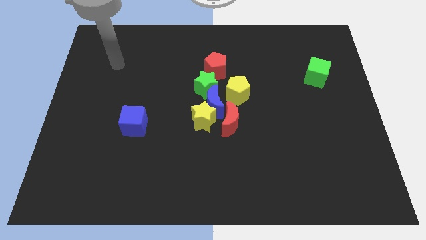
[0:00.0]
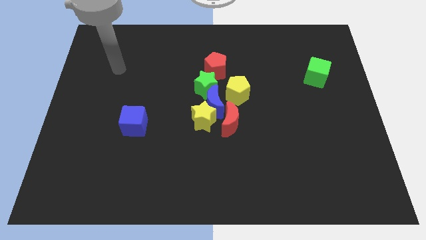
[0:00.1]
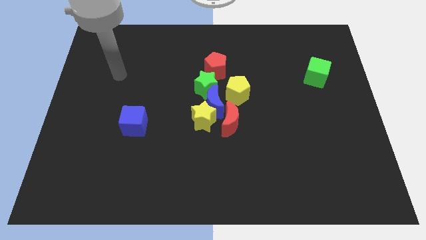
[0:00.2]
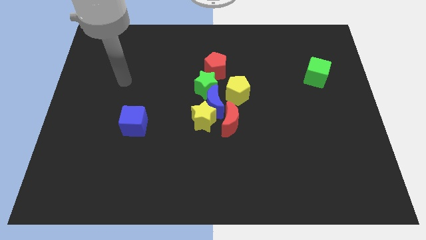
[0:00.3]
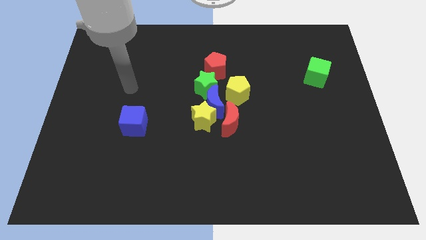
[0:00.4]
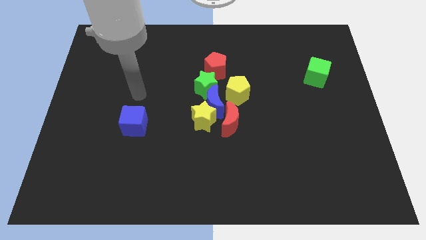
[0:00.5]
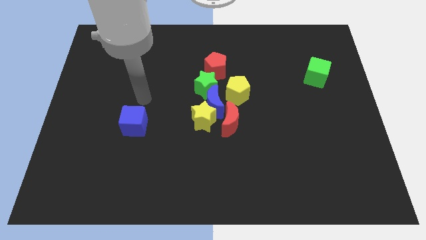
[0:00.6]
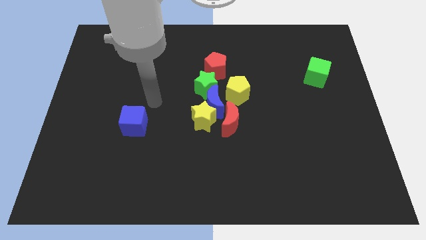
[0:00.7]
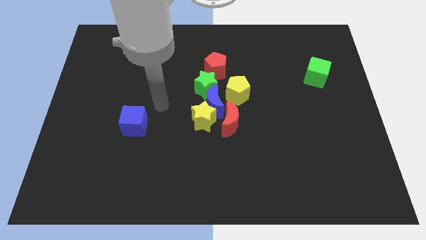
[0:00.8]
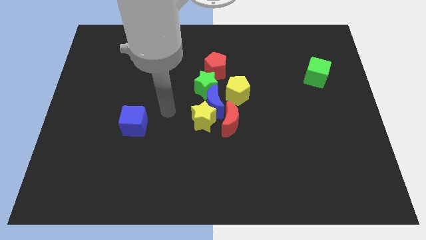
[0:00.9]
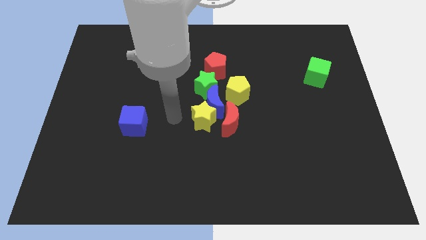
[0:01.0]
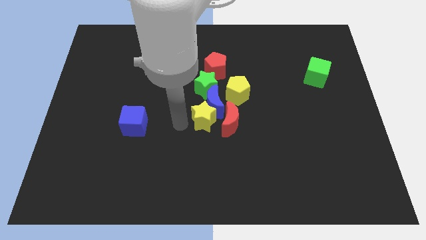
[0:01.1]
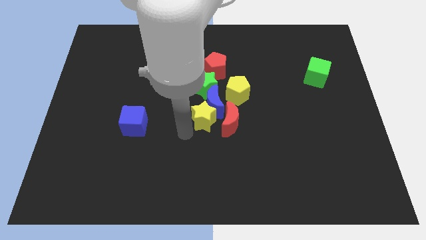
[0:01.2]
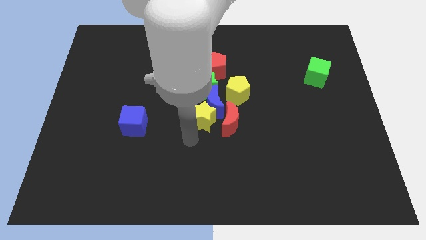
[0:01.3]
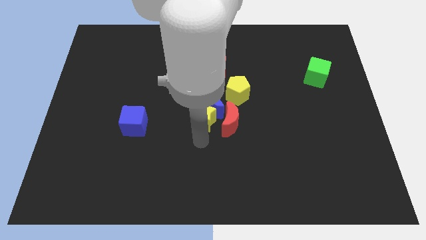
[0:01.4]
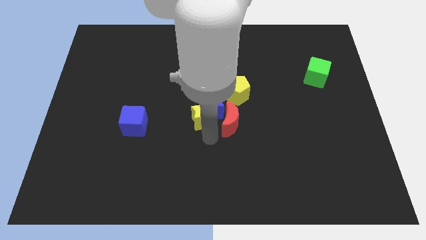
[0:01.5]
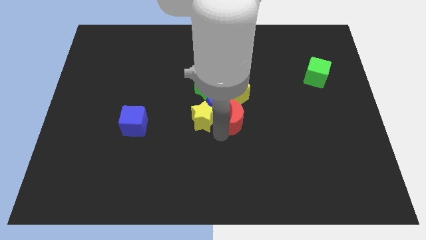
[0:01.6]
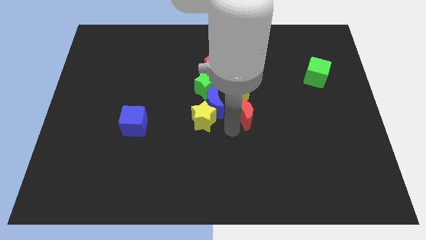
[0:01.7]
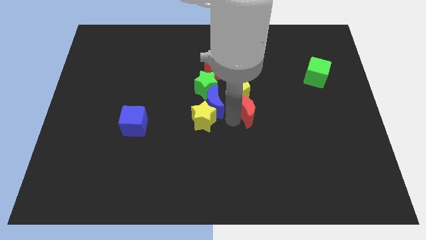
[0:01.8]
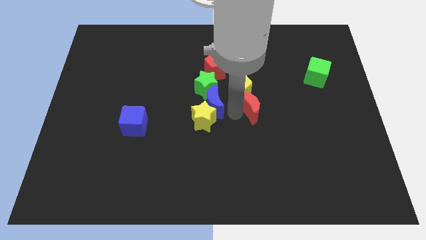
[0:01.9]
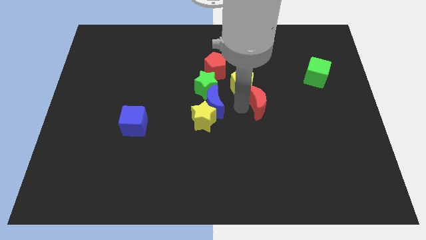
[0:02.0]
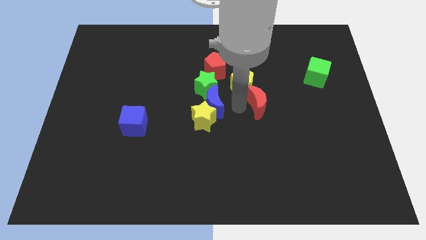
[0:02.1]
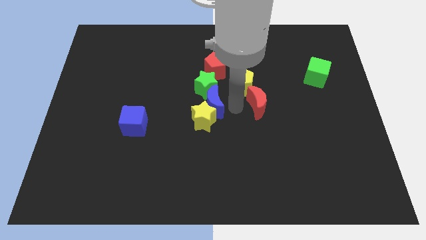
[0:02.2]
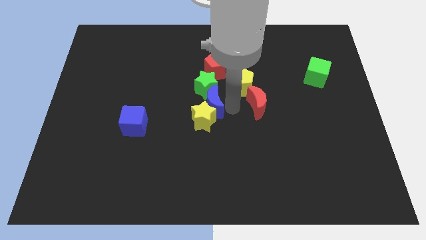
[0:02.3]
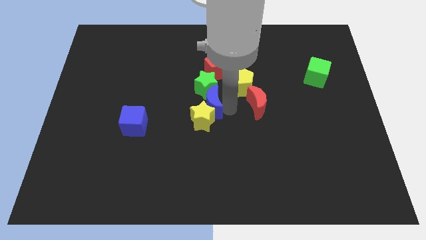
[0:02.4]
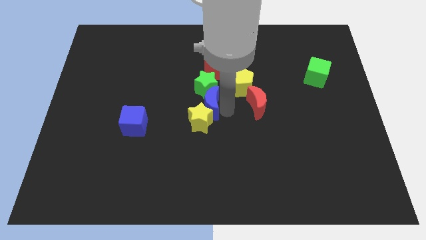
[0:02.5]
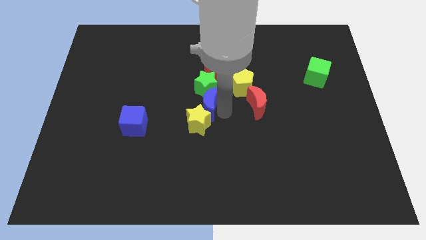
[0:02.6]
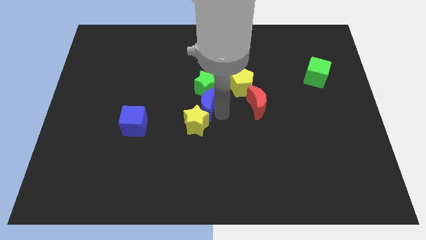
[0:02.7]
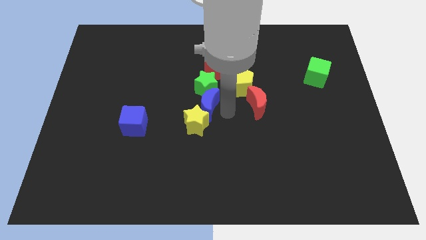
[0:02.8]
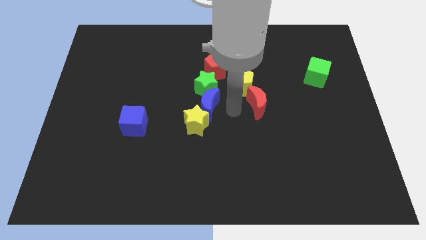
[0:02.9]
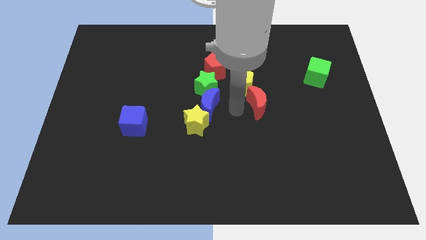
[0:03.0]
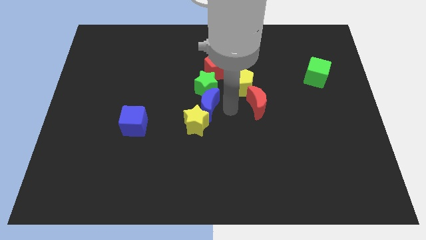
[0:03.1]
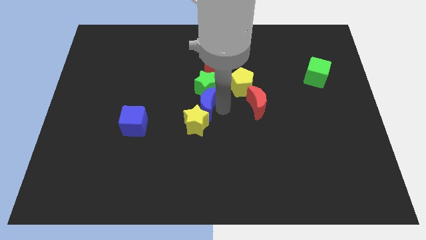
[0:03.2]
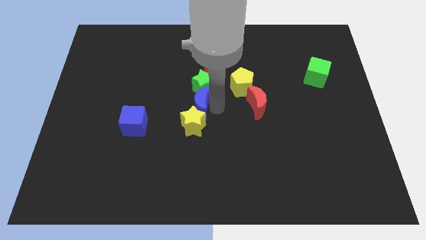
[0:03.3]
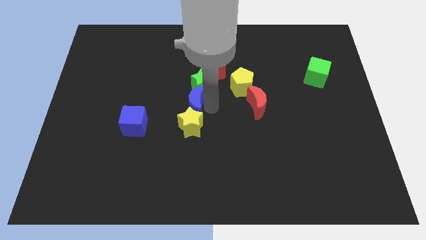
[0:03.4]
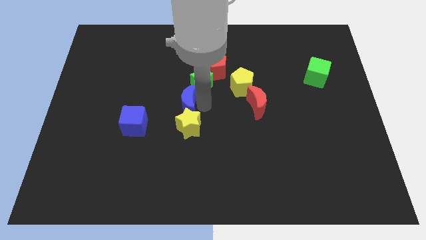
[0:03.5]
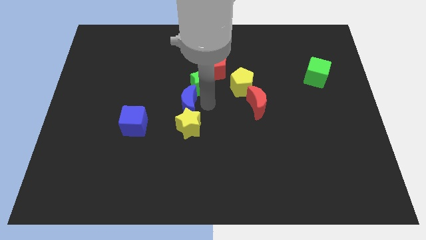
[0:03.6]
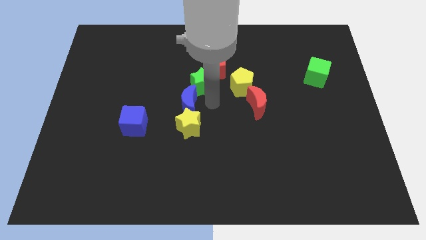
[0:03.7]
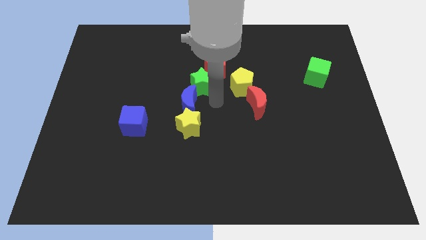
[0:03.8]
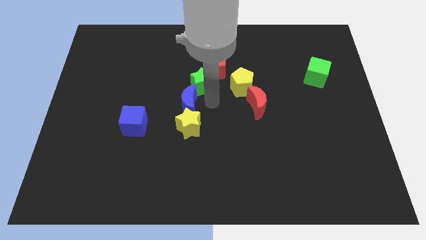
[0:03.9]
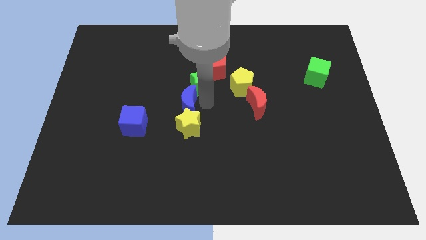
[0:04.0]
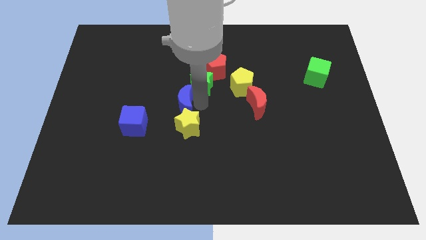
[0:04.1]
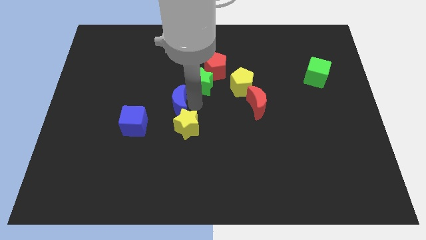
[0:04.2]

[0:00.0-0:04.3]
pull the blue moon apart from the group of blocks

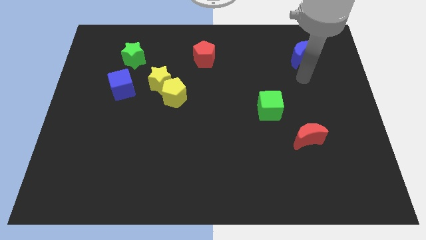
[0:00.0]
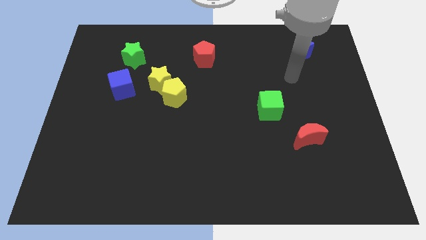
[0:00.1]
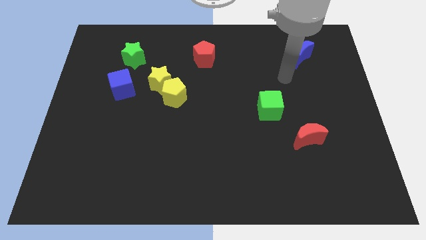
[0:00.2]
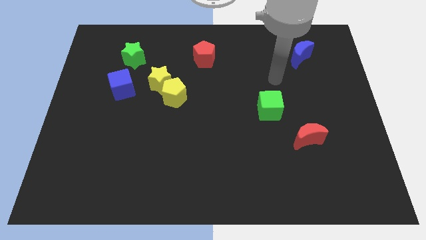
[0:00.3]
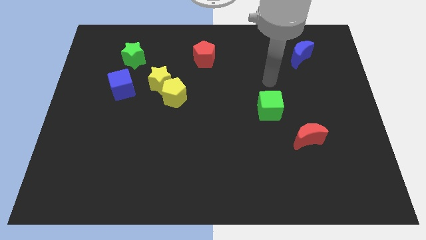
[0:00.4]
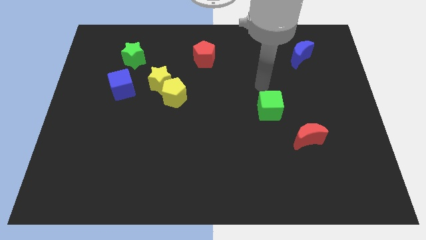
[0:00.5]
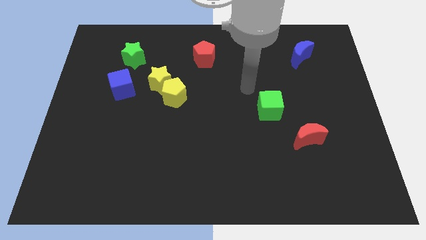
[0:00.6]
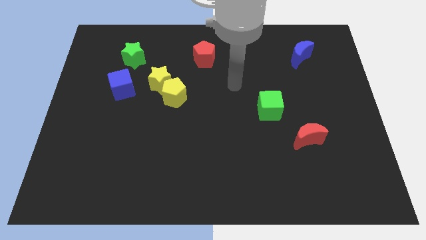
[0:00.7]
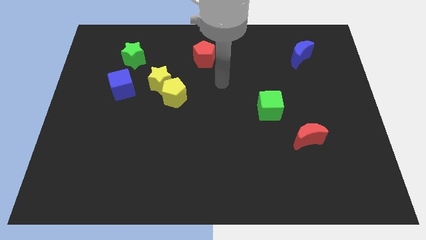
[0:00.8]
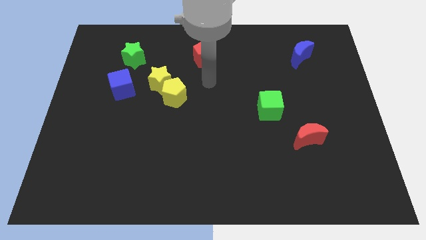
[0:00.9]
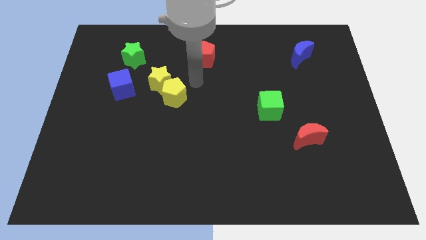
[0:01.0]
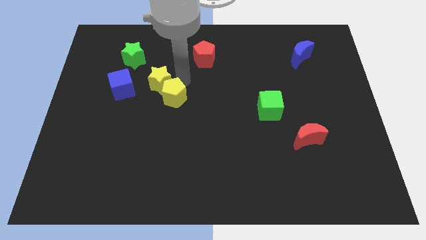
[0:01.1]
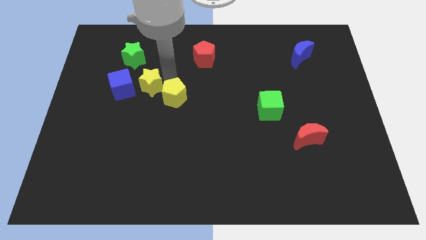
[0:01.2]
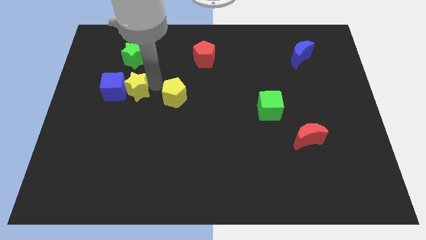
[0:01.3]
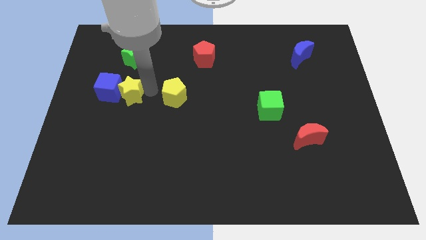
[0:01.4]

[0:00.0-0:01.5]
separate the yellow pentagon from the yellow star

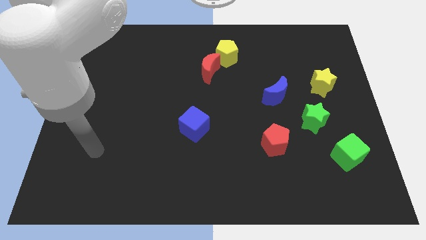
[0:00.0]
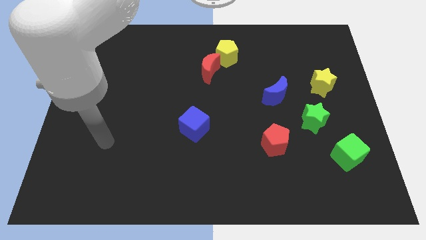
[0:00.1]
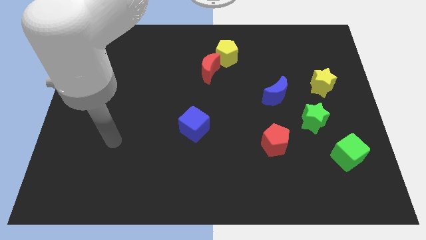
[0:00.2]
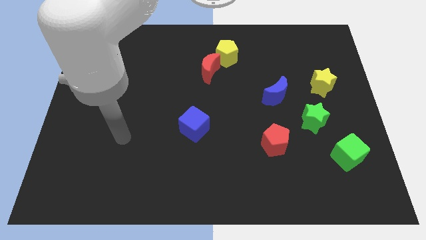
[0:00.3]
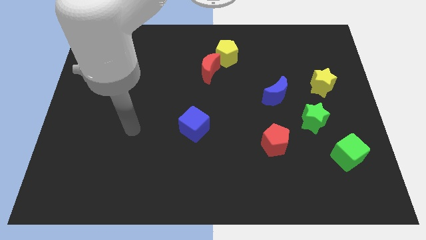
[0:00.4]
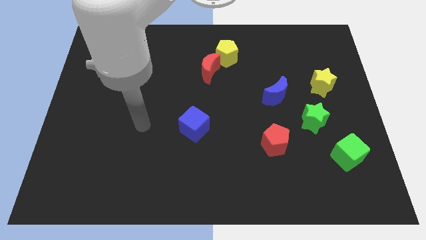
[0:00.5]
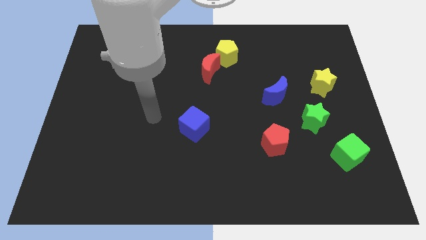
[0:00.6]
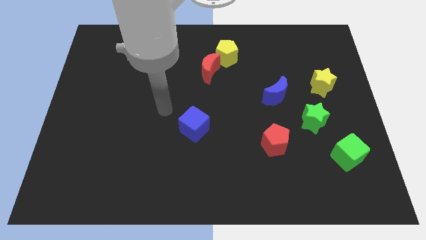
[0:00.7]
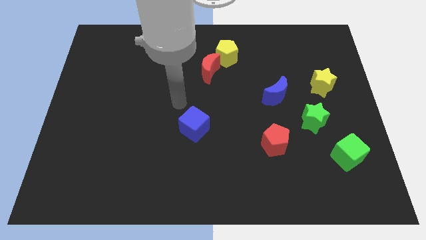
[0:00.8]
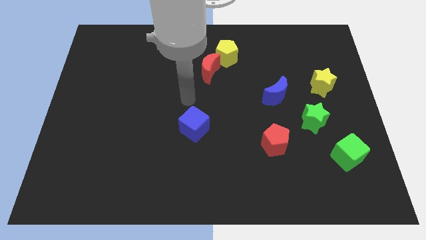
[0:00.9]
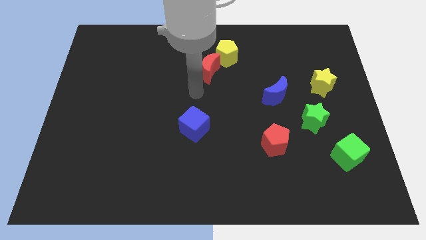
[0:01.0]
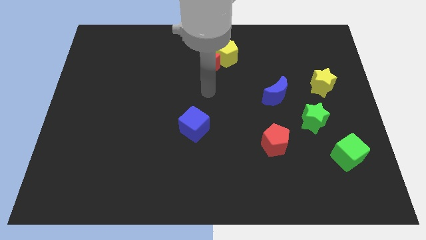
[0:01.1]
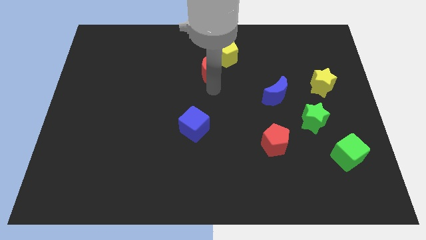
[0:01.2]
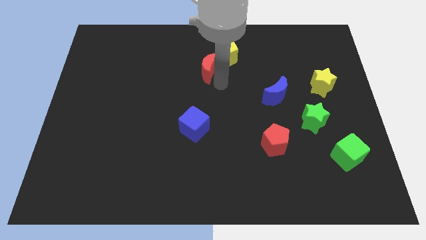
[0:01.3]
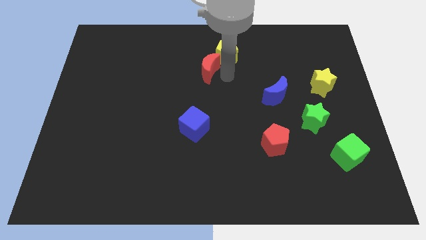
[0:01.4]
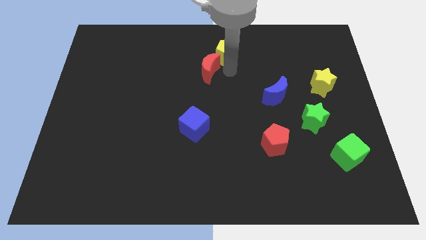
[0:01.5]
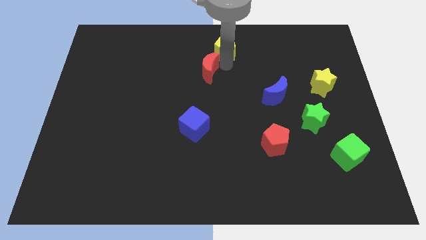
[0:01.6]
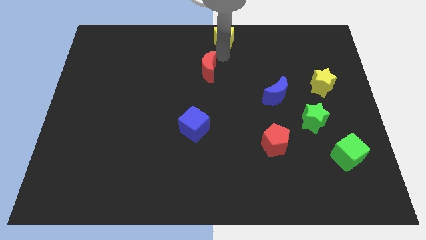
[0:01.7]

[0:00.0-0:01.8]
separate the red moon from the yellow pentagon

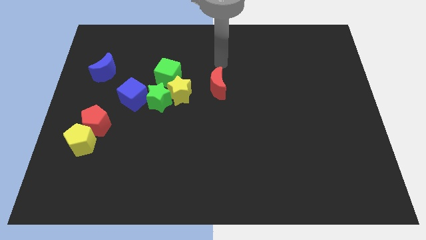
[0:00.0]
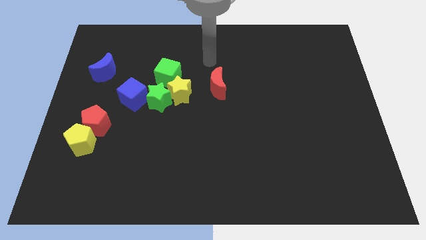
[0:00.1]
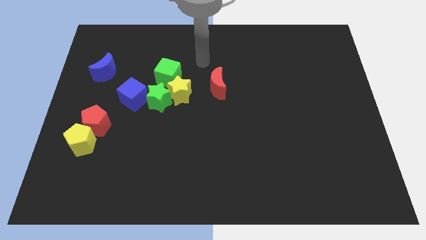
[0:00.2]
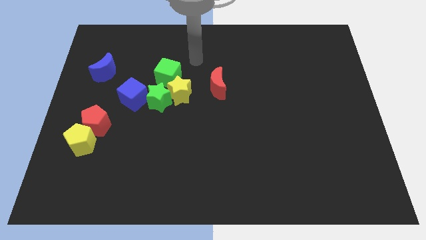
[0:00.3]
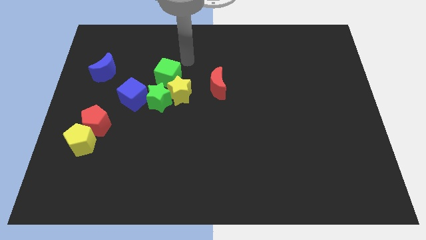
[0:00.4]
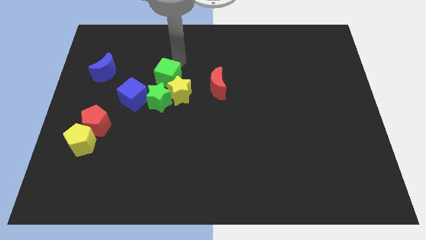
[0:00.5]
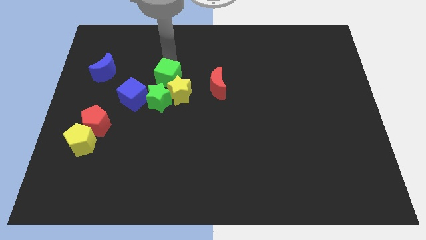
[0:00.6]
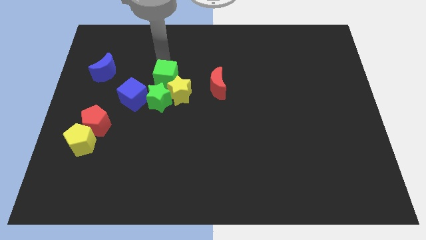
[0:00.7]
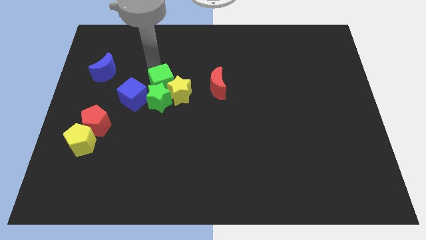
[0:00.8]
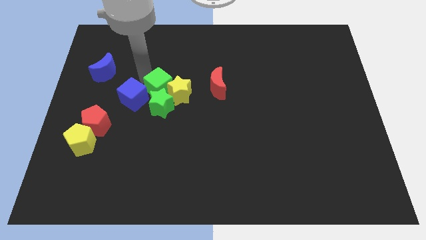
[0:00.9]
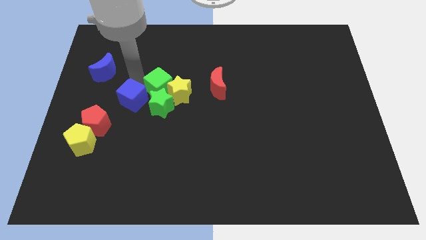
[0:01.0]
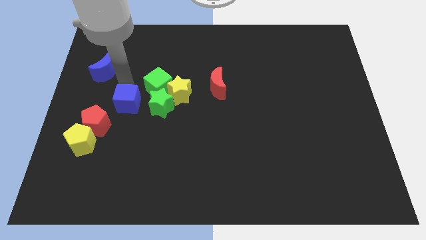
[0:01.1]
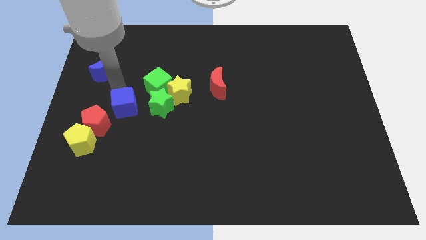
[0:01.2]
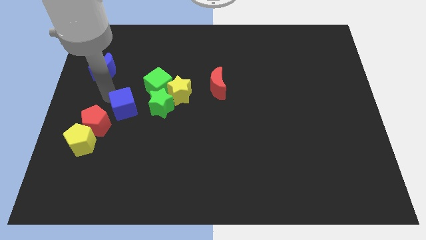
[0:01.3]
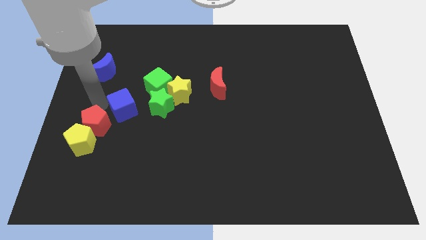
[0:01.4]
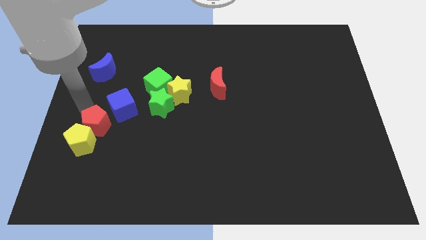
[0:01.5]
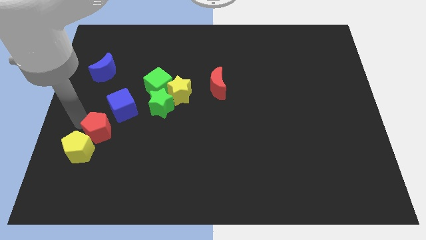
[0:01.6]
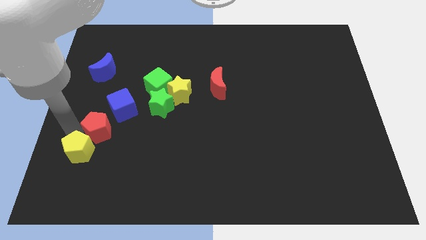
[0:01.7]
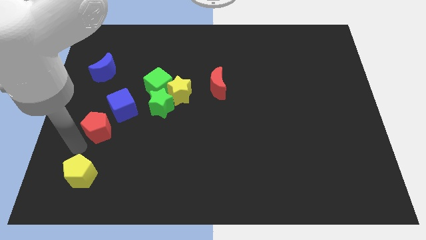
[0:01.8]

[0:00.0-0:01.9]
separate the red pentagon from the yellow pentagon
